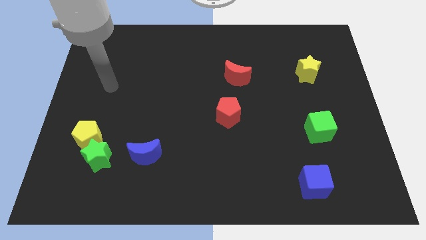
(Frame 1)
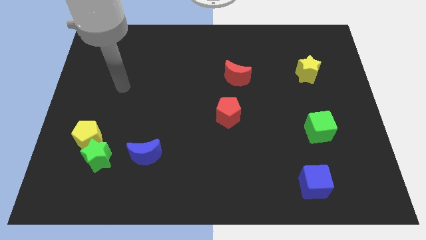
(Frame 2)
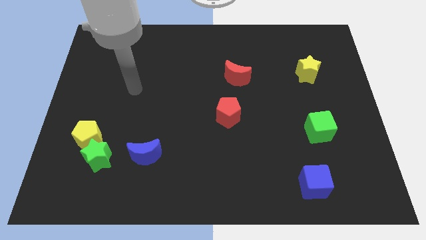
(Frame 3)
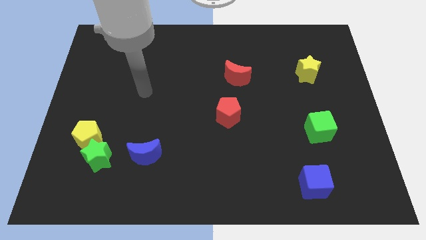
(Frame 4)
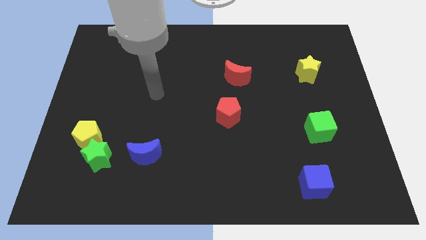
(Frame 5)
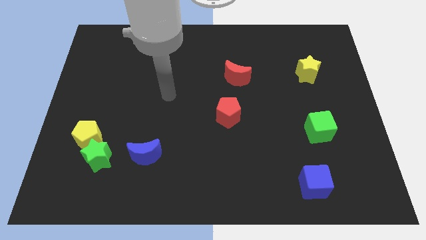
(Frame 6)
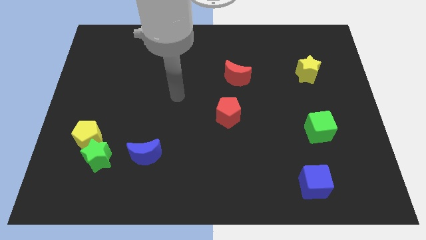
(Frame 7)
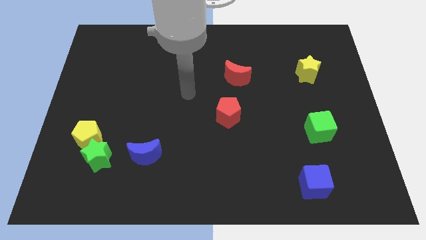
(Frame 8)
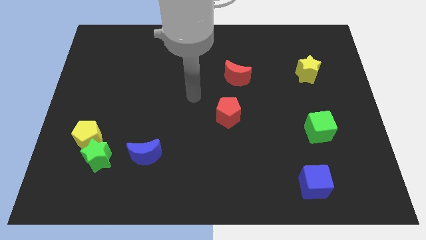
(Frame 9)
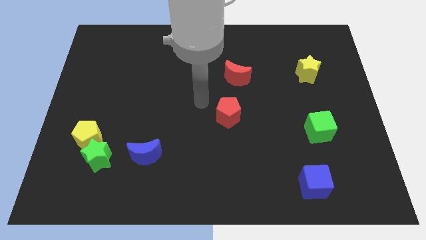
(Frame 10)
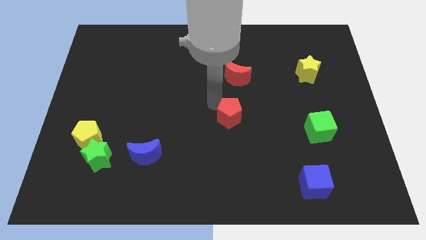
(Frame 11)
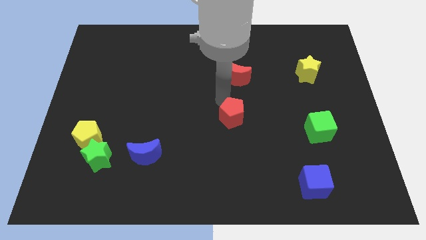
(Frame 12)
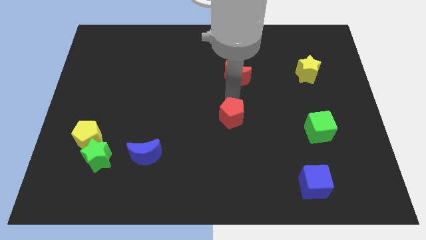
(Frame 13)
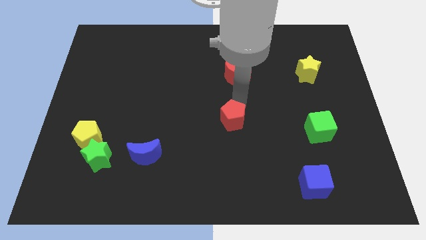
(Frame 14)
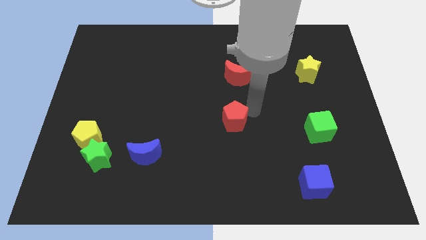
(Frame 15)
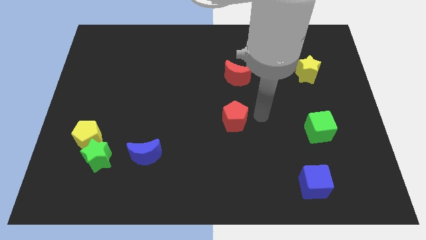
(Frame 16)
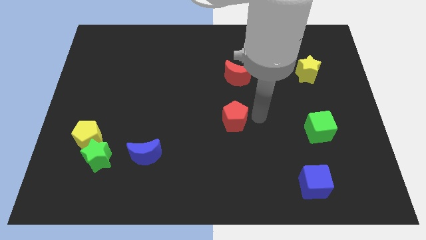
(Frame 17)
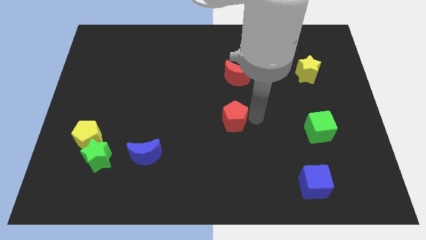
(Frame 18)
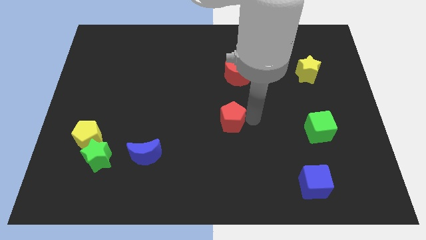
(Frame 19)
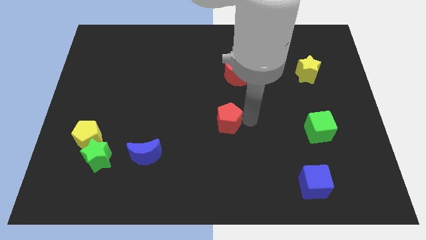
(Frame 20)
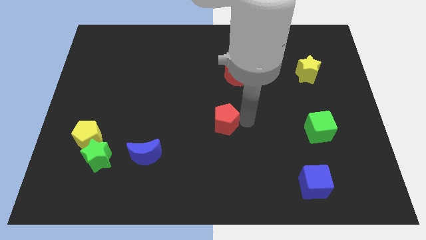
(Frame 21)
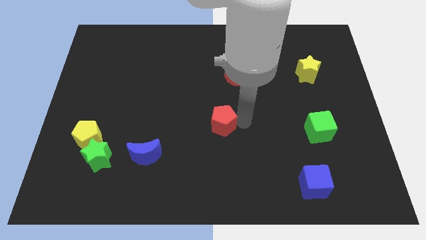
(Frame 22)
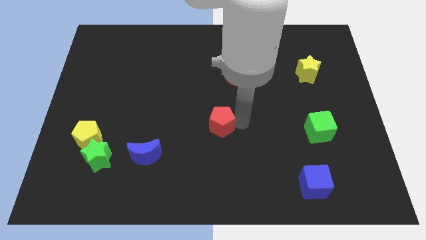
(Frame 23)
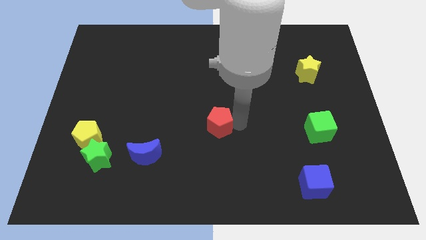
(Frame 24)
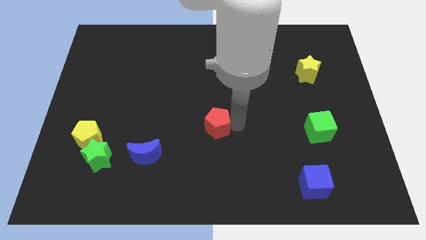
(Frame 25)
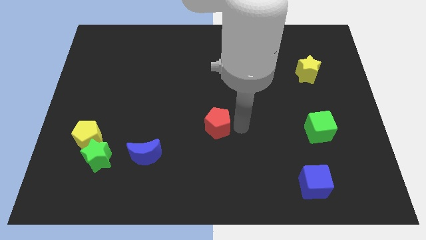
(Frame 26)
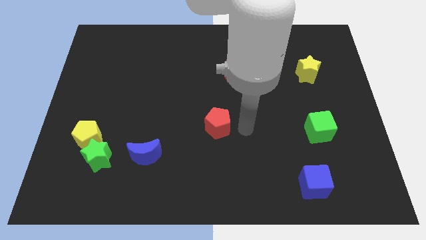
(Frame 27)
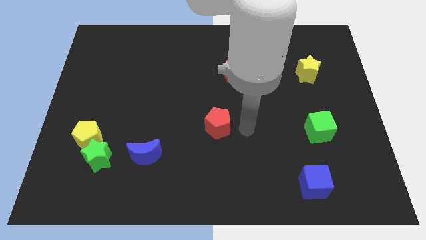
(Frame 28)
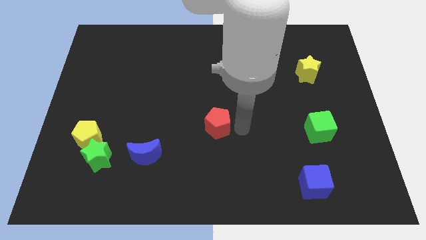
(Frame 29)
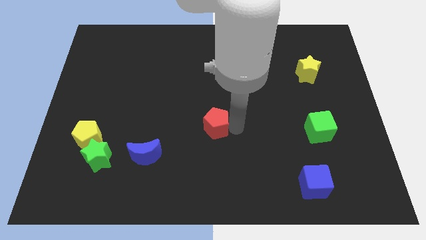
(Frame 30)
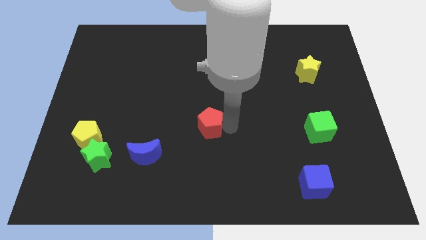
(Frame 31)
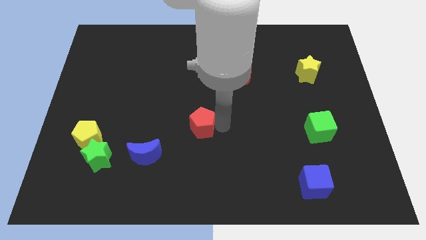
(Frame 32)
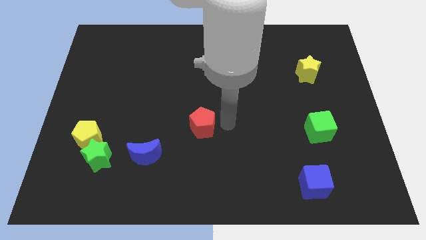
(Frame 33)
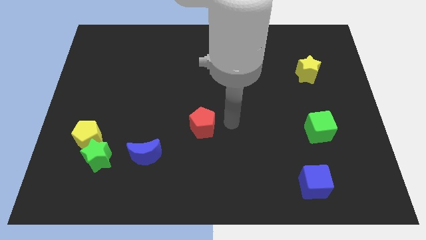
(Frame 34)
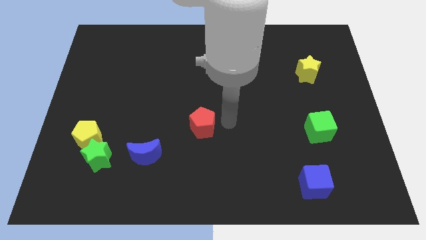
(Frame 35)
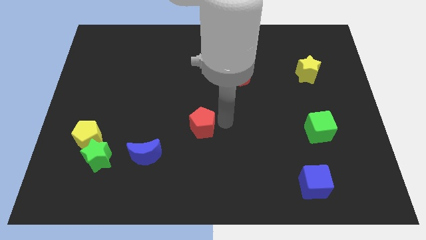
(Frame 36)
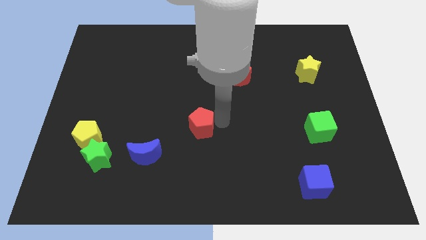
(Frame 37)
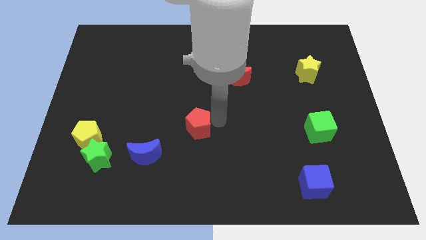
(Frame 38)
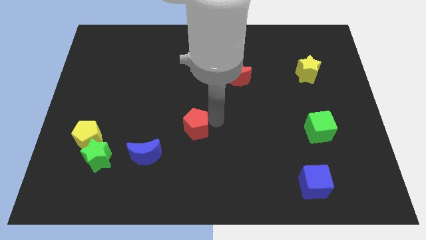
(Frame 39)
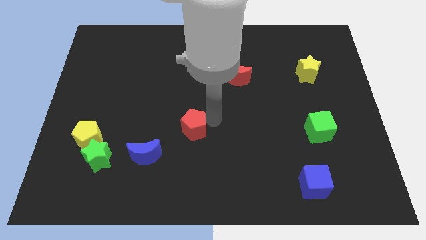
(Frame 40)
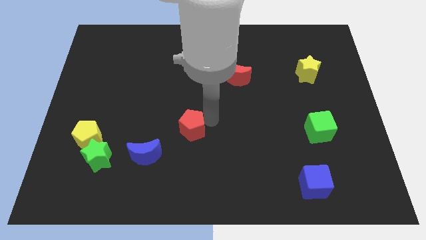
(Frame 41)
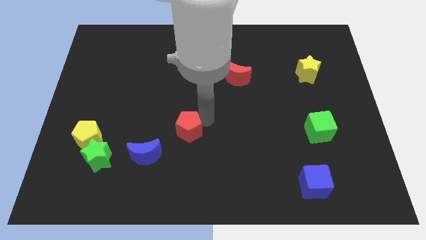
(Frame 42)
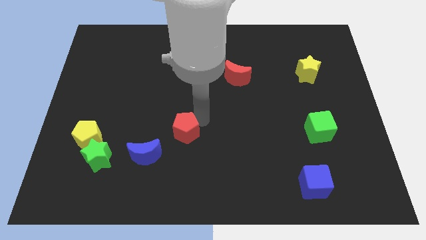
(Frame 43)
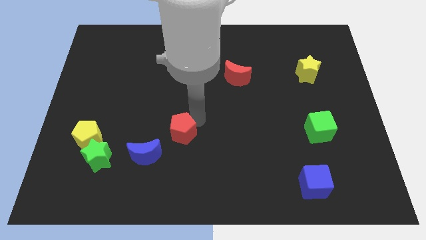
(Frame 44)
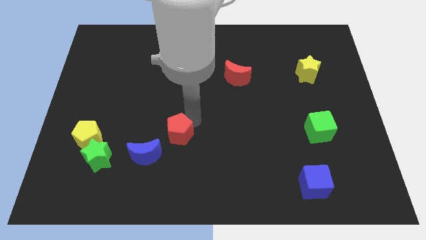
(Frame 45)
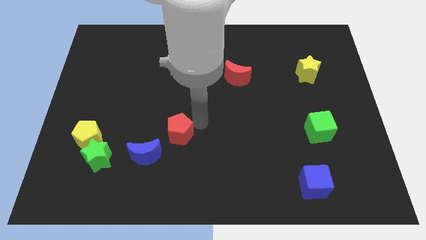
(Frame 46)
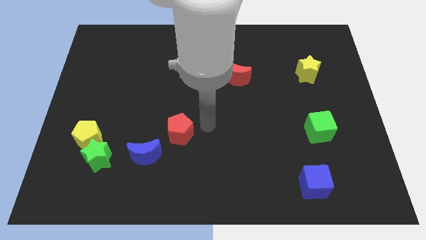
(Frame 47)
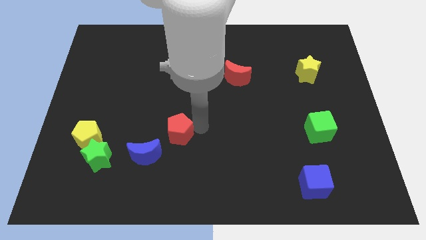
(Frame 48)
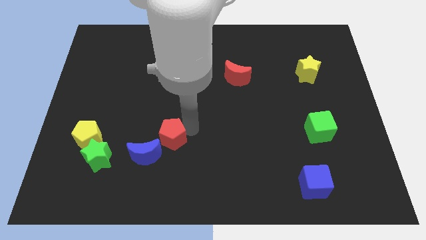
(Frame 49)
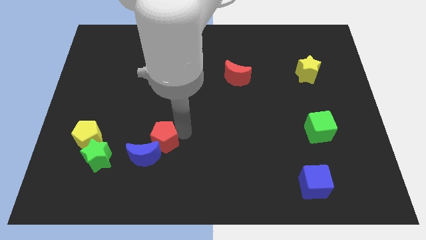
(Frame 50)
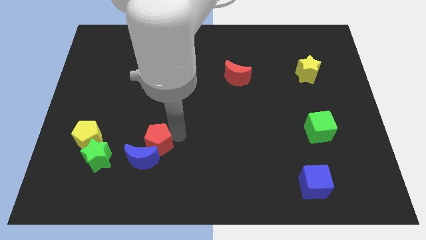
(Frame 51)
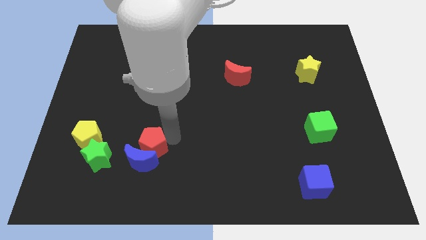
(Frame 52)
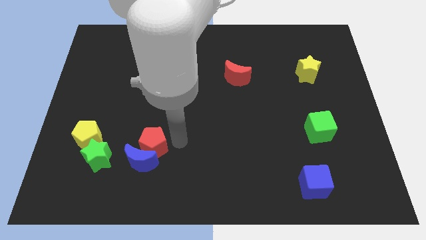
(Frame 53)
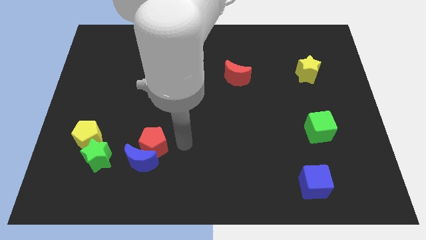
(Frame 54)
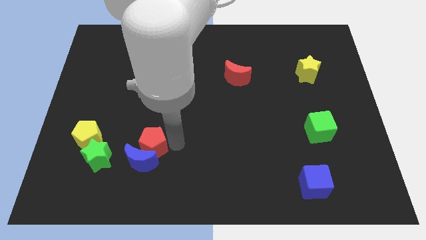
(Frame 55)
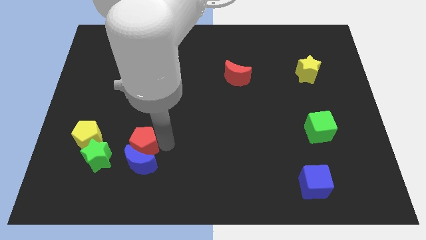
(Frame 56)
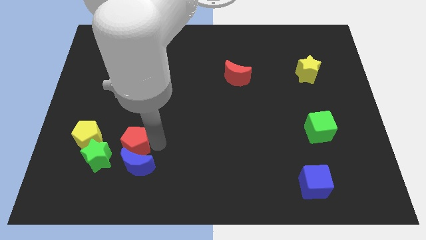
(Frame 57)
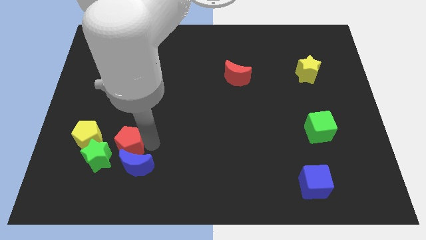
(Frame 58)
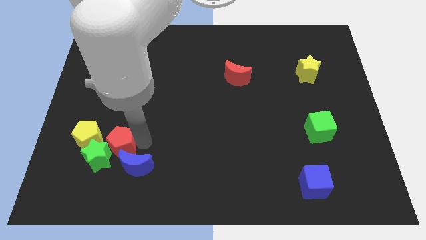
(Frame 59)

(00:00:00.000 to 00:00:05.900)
put the red pentagon towards the green star
